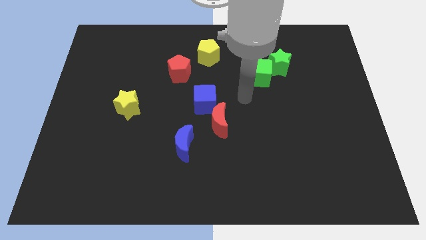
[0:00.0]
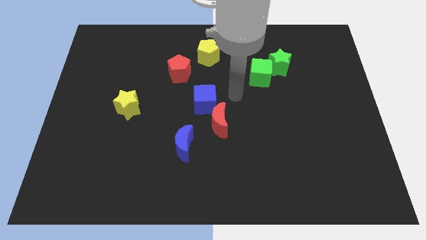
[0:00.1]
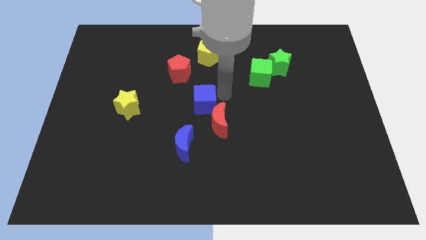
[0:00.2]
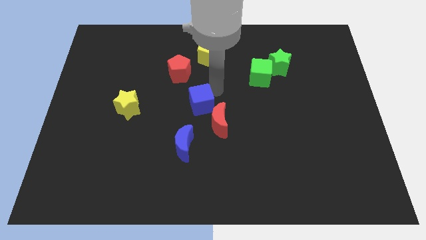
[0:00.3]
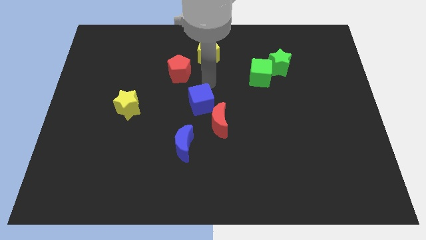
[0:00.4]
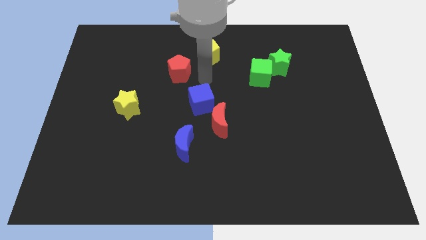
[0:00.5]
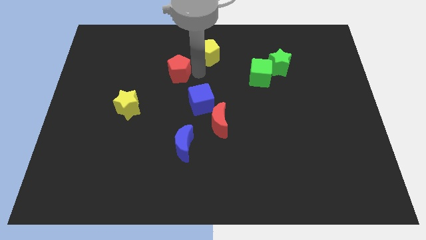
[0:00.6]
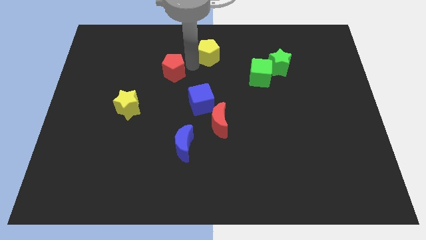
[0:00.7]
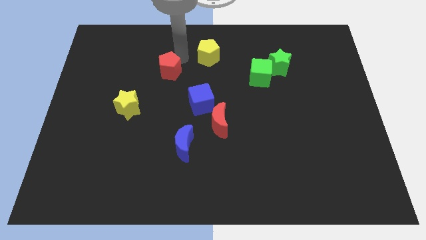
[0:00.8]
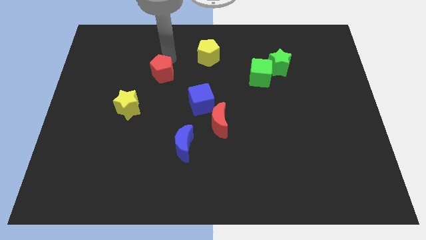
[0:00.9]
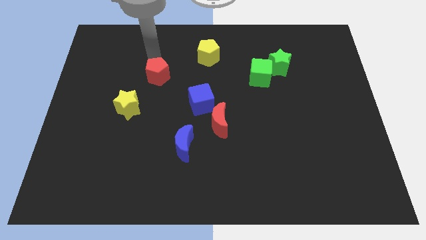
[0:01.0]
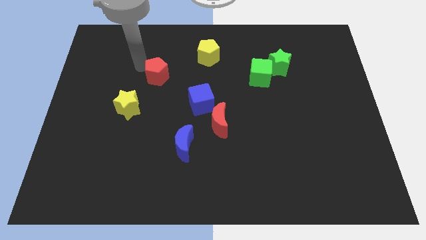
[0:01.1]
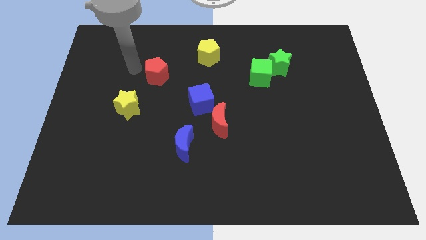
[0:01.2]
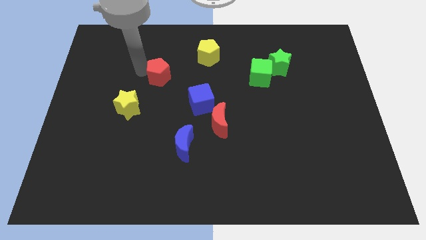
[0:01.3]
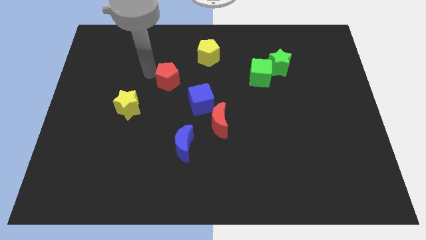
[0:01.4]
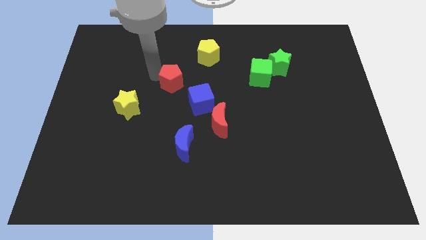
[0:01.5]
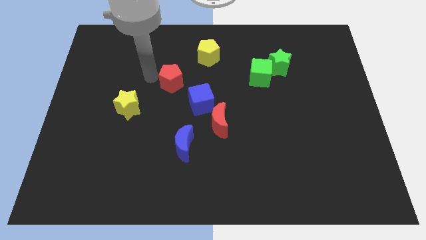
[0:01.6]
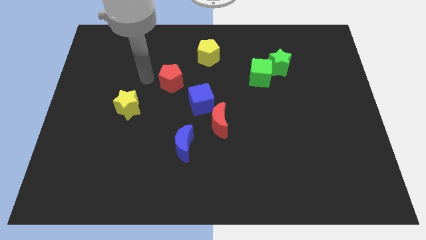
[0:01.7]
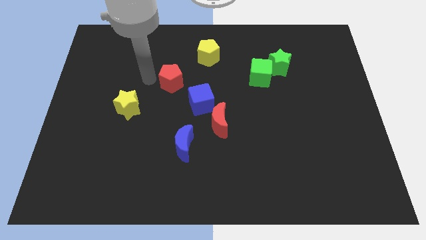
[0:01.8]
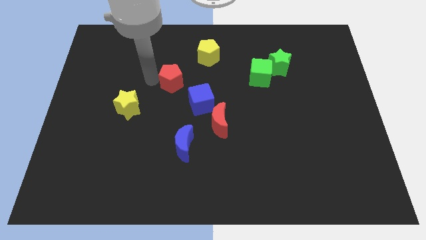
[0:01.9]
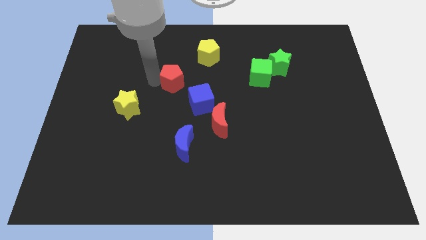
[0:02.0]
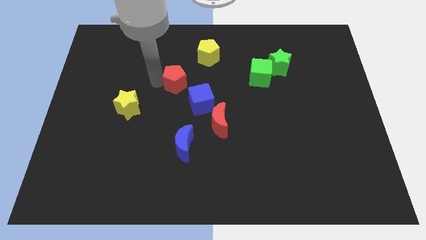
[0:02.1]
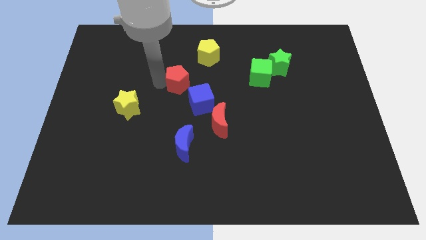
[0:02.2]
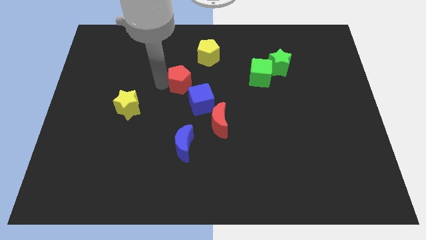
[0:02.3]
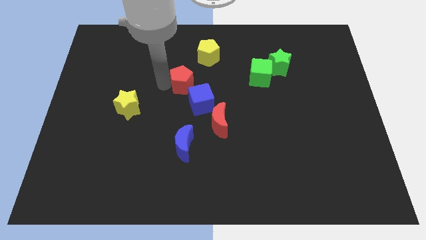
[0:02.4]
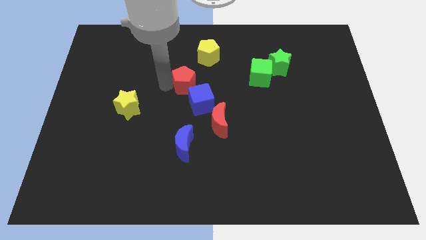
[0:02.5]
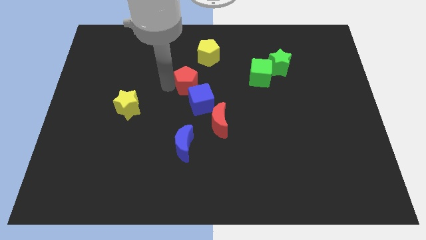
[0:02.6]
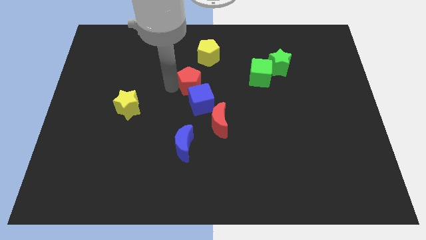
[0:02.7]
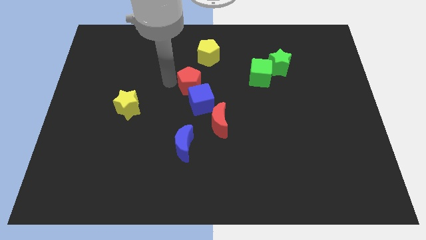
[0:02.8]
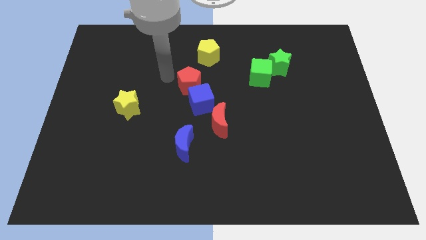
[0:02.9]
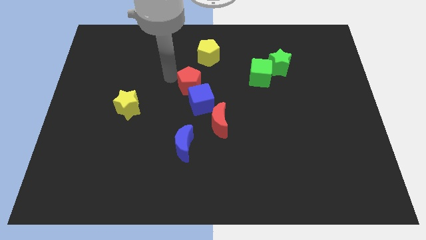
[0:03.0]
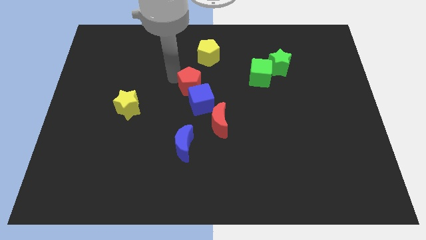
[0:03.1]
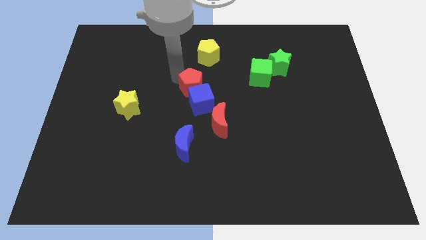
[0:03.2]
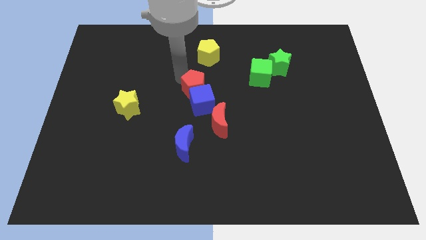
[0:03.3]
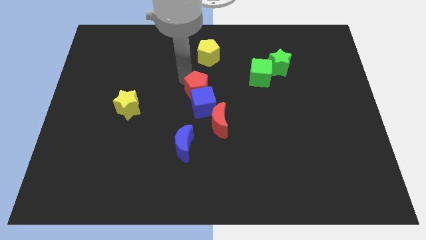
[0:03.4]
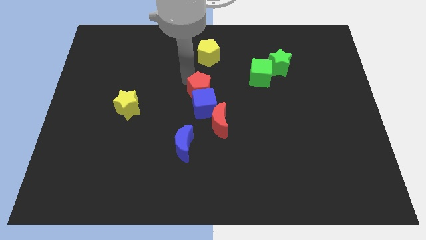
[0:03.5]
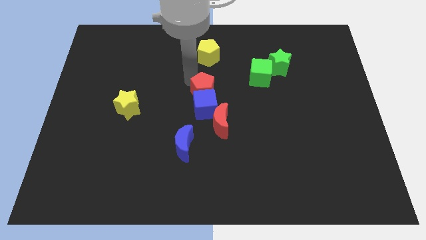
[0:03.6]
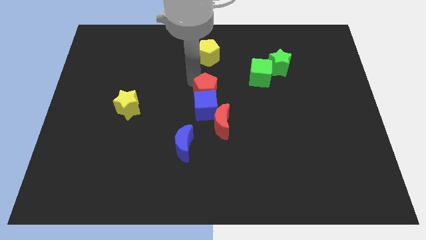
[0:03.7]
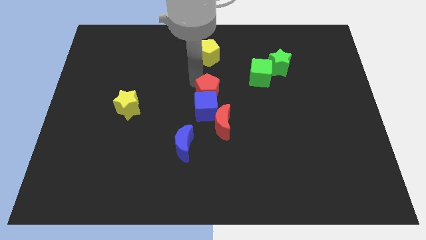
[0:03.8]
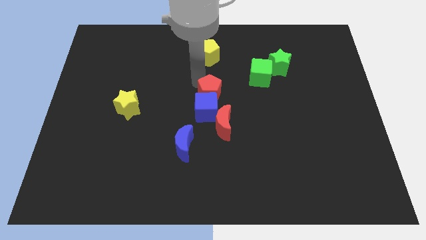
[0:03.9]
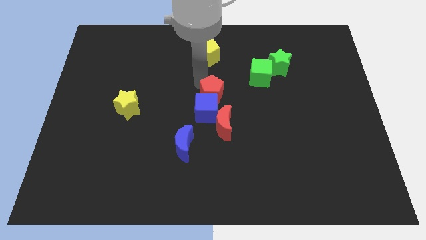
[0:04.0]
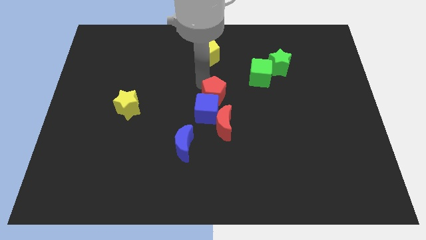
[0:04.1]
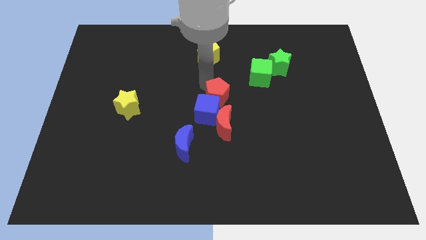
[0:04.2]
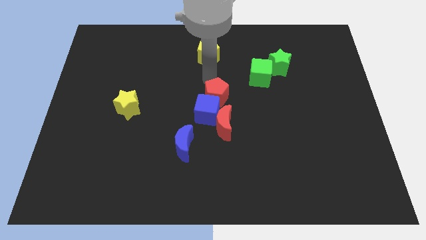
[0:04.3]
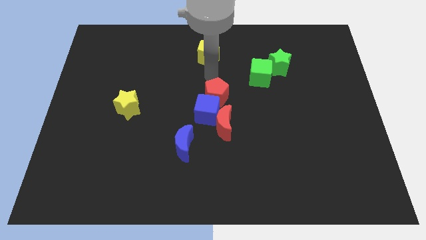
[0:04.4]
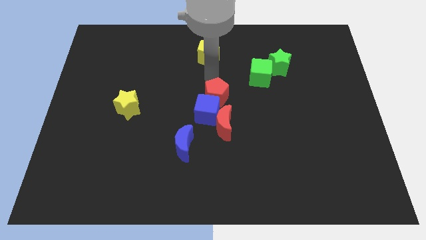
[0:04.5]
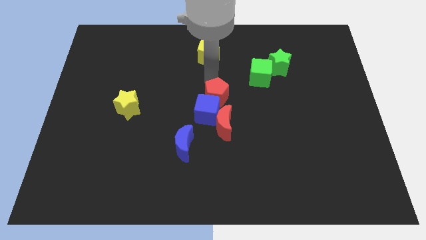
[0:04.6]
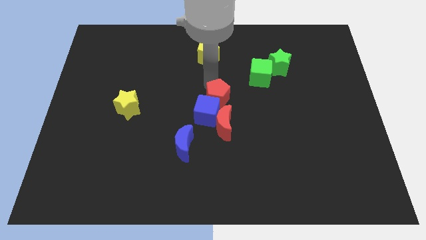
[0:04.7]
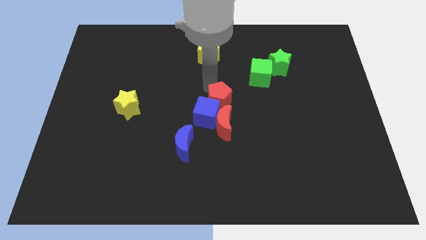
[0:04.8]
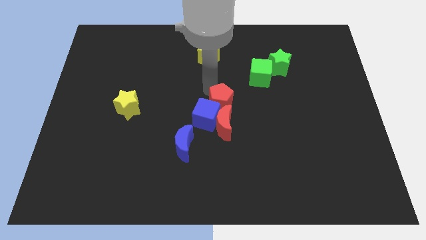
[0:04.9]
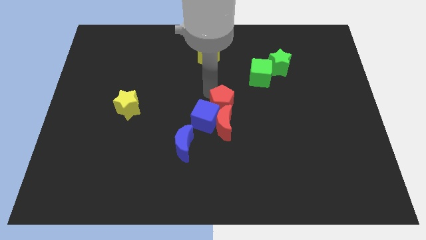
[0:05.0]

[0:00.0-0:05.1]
put the red pentagon close to the red moon

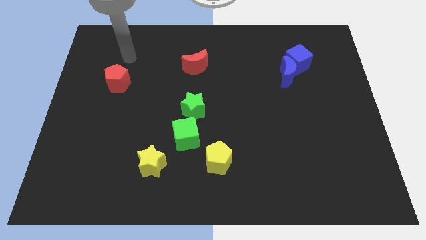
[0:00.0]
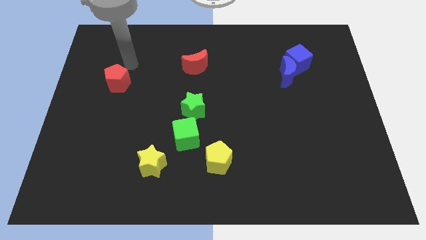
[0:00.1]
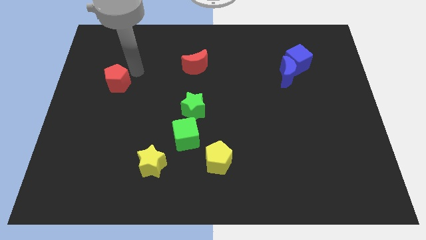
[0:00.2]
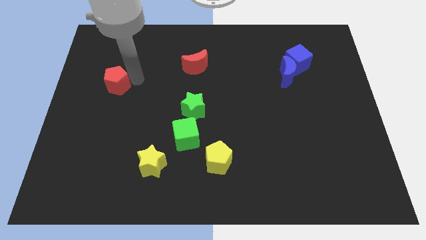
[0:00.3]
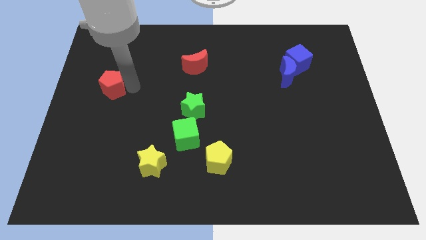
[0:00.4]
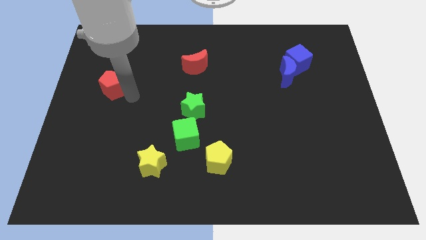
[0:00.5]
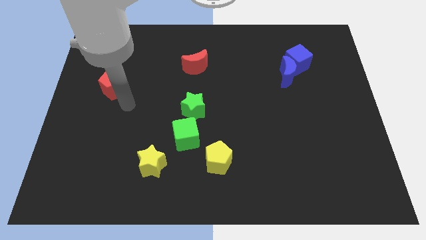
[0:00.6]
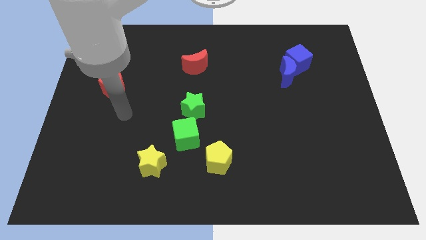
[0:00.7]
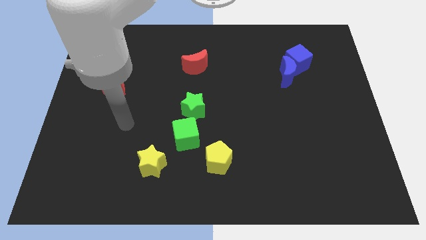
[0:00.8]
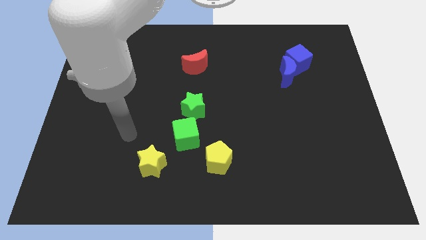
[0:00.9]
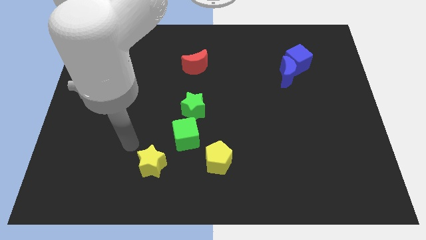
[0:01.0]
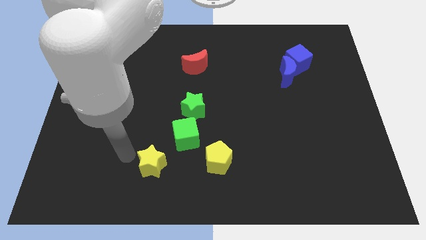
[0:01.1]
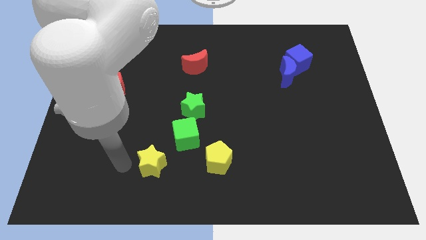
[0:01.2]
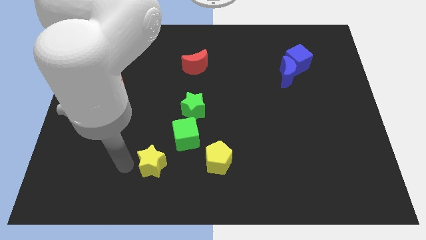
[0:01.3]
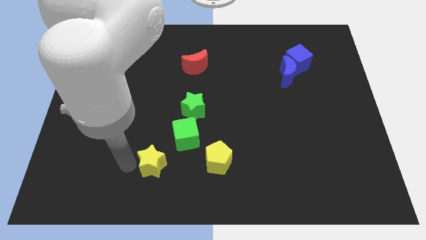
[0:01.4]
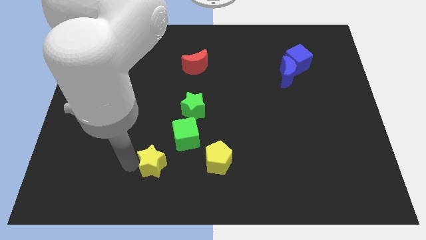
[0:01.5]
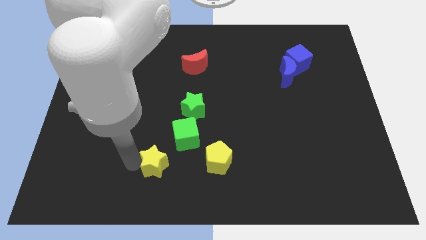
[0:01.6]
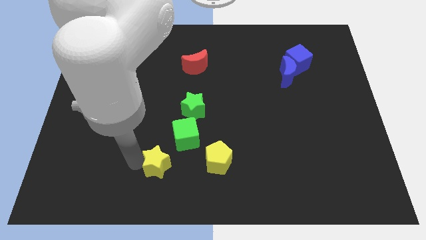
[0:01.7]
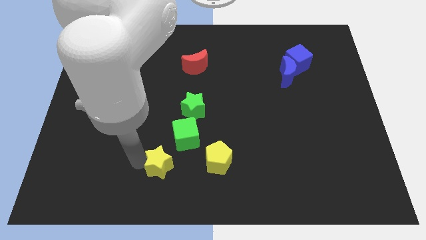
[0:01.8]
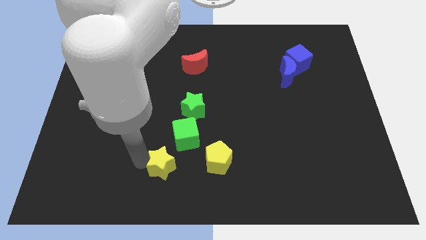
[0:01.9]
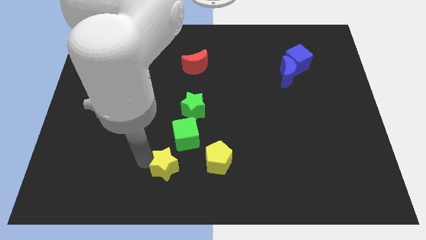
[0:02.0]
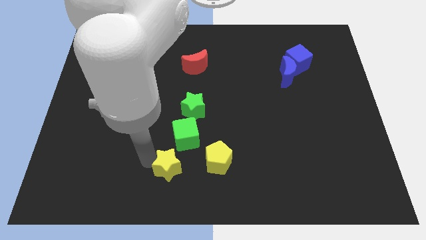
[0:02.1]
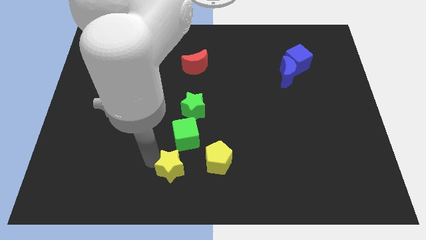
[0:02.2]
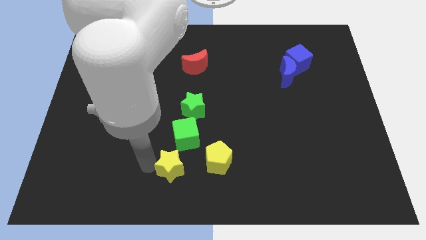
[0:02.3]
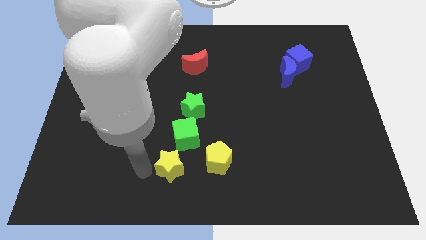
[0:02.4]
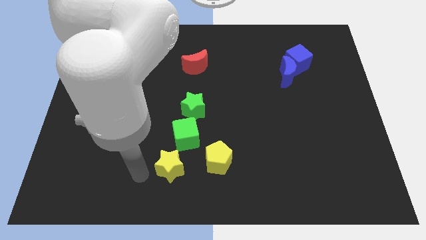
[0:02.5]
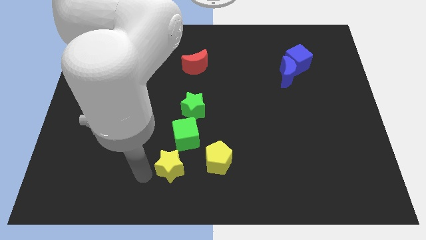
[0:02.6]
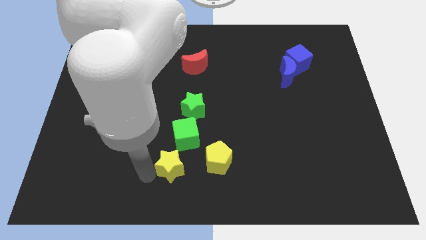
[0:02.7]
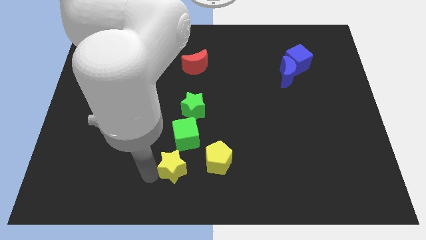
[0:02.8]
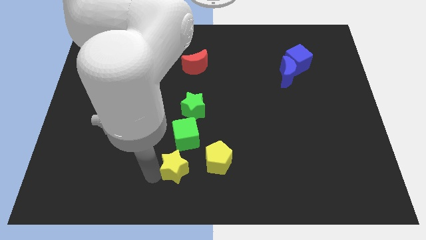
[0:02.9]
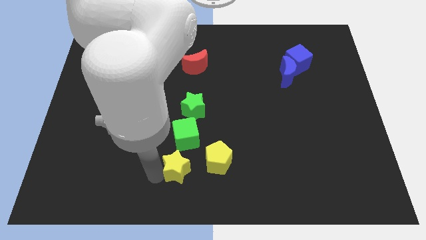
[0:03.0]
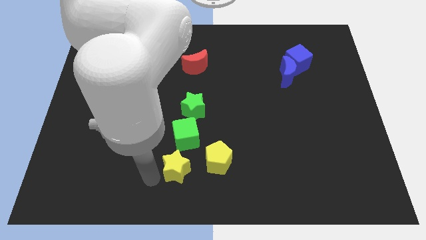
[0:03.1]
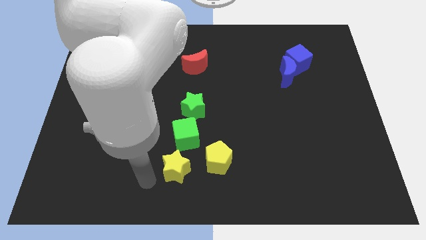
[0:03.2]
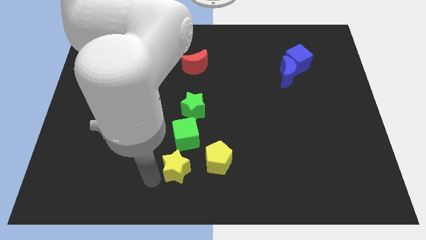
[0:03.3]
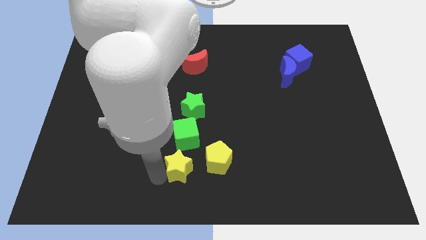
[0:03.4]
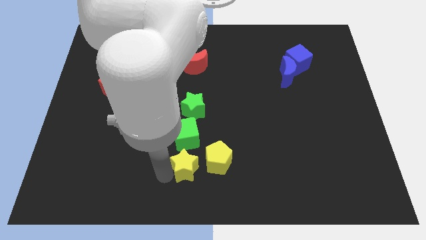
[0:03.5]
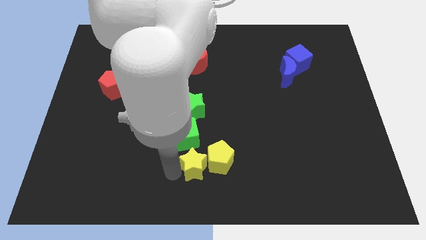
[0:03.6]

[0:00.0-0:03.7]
slide the yellow star towards the yellow pentagon

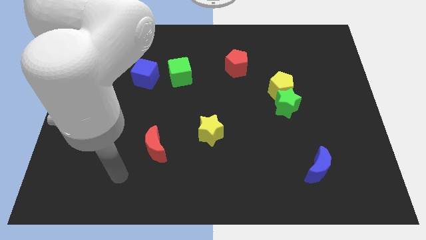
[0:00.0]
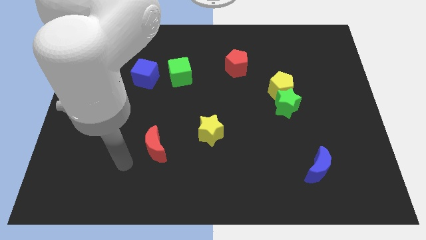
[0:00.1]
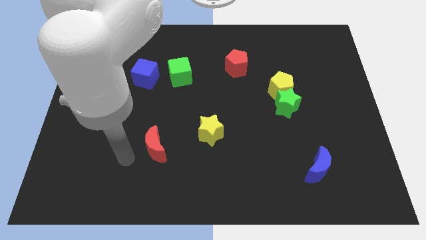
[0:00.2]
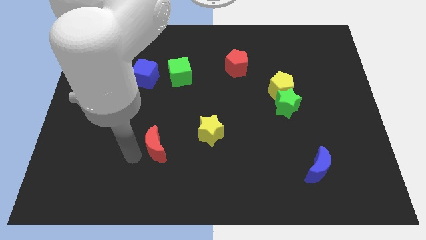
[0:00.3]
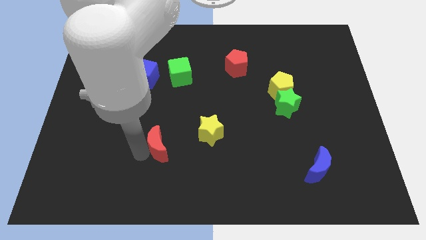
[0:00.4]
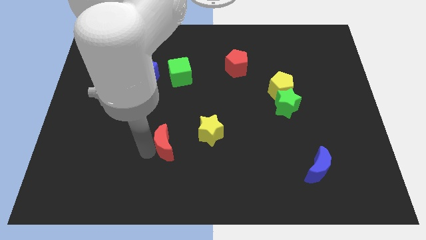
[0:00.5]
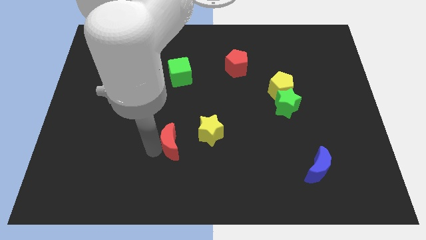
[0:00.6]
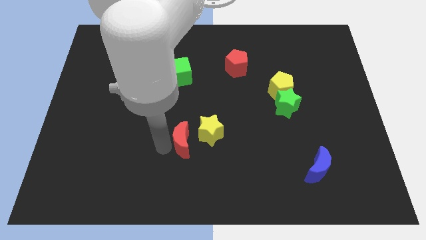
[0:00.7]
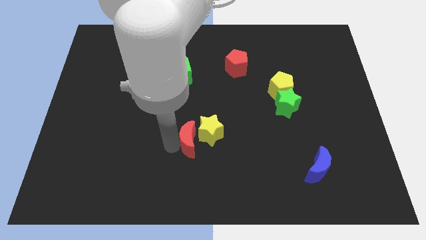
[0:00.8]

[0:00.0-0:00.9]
slide the red moon close to the yellow star
